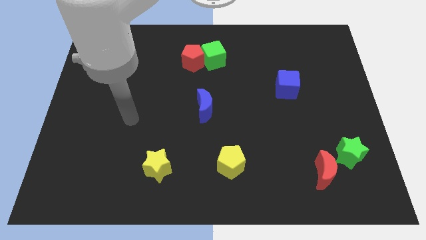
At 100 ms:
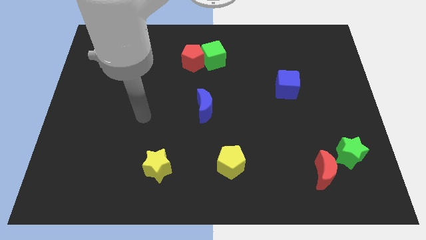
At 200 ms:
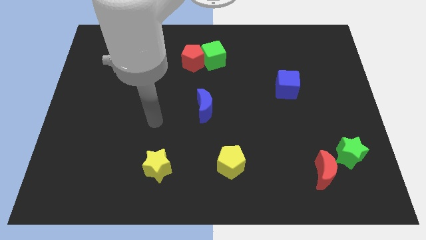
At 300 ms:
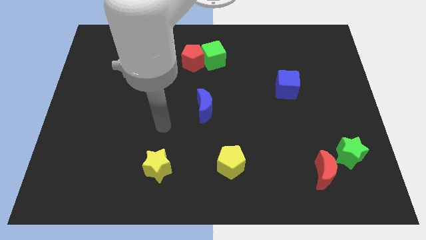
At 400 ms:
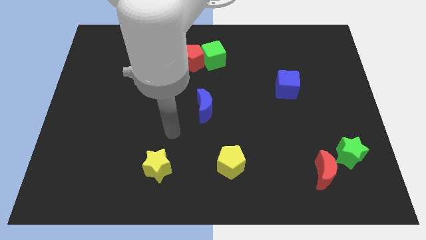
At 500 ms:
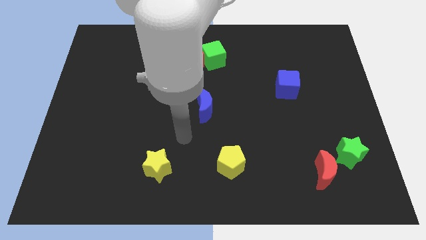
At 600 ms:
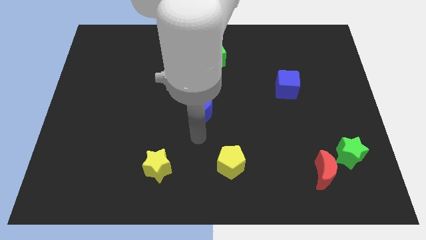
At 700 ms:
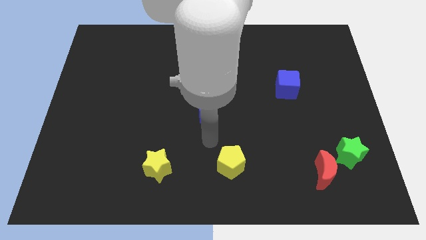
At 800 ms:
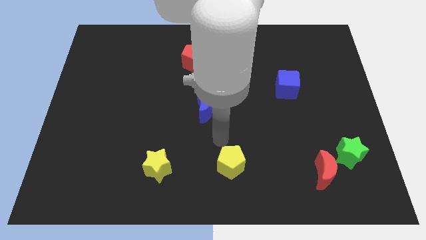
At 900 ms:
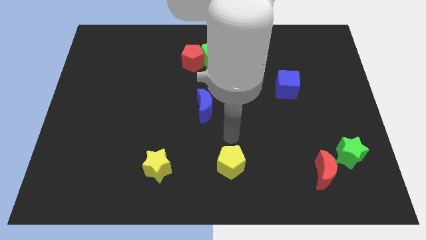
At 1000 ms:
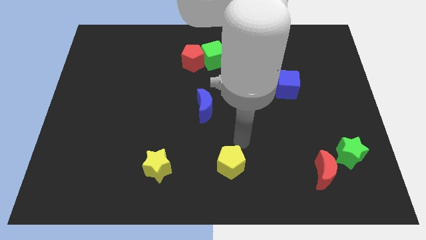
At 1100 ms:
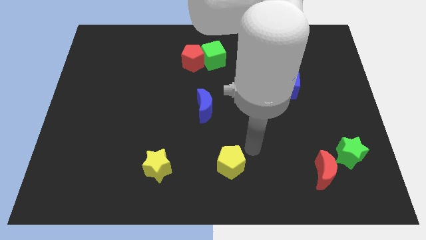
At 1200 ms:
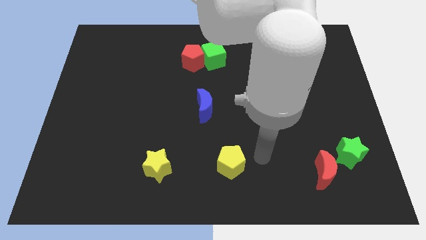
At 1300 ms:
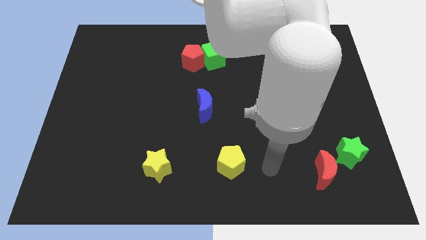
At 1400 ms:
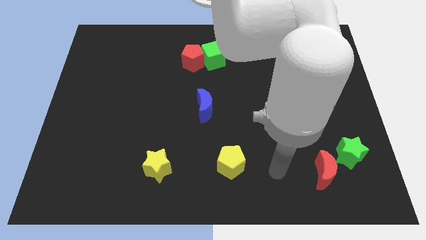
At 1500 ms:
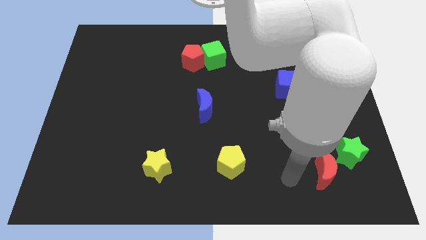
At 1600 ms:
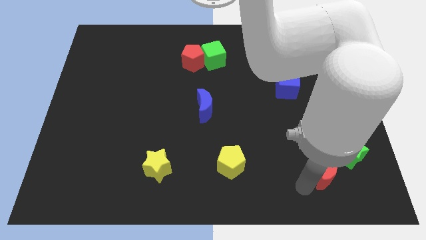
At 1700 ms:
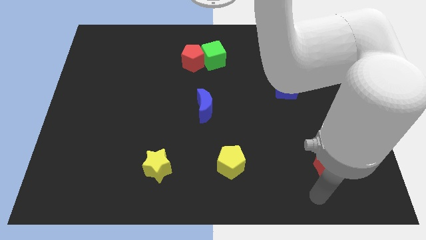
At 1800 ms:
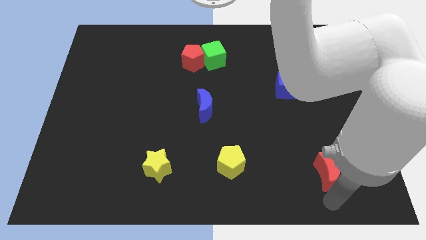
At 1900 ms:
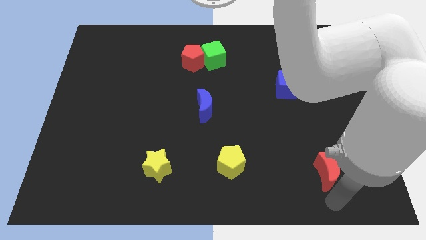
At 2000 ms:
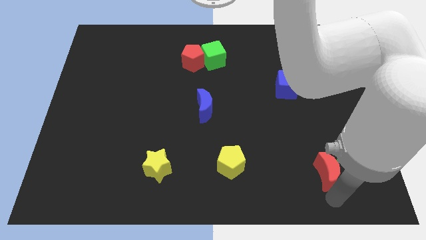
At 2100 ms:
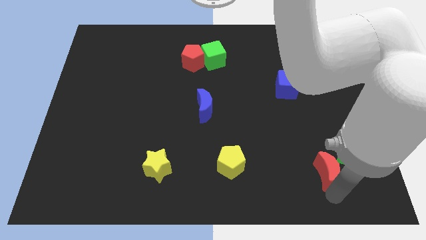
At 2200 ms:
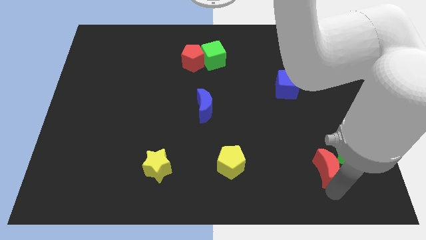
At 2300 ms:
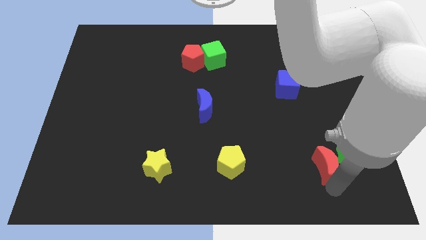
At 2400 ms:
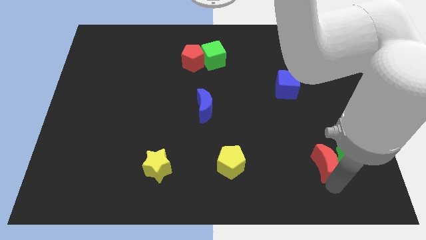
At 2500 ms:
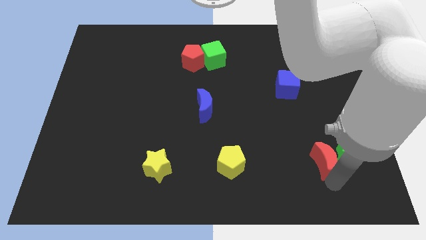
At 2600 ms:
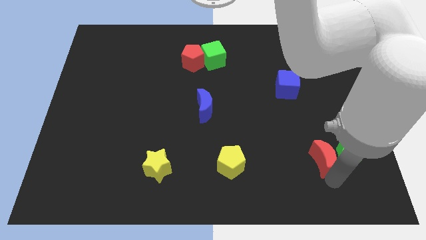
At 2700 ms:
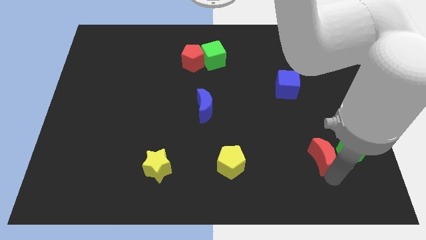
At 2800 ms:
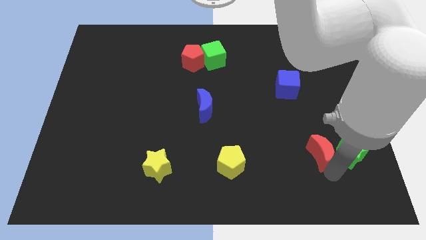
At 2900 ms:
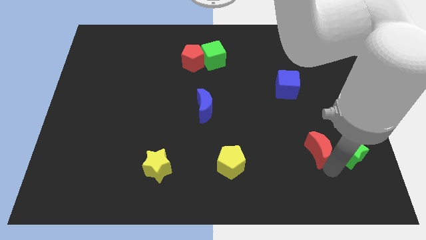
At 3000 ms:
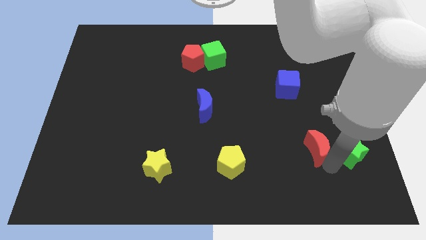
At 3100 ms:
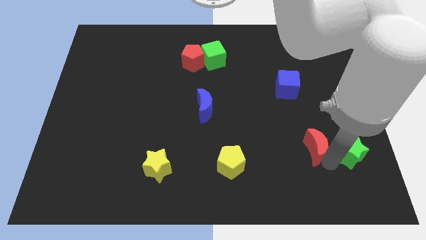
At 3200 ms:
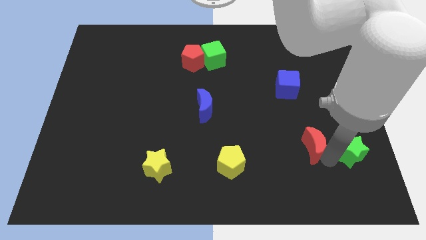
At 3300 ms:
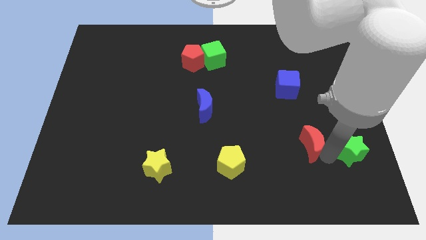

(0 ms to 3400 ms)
slide the red moon upwards slightly

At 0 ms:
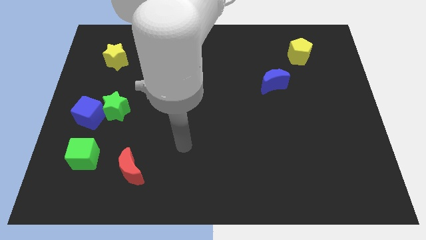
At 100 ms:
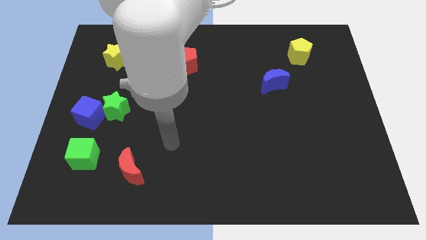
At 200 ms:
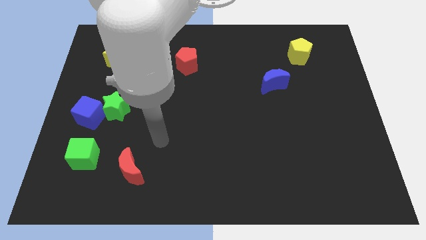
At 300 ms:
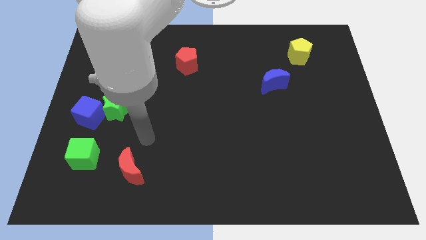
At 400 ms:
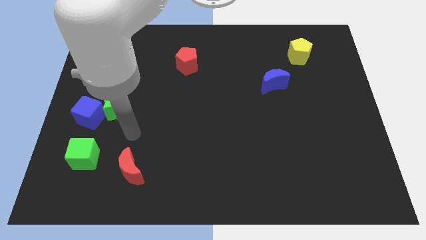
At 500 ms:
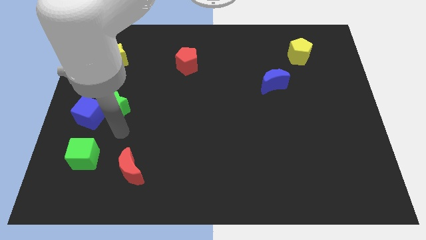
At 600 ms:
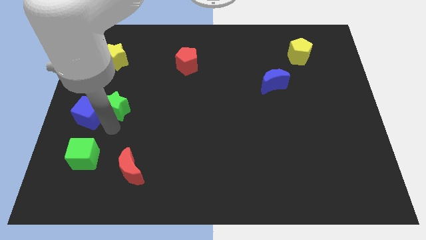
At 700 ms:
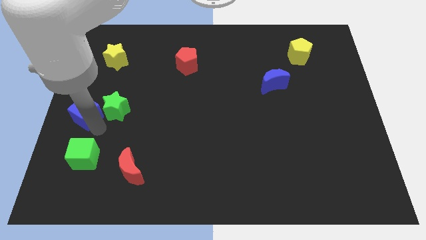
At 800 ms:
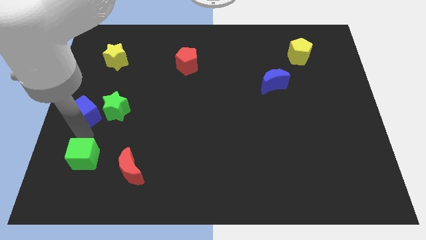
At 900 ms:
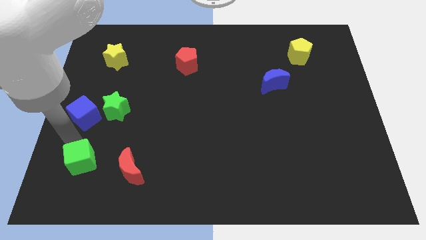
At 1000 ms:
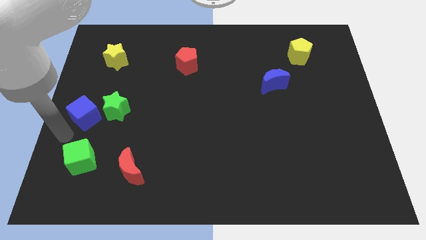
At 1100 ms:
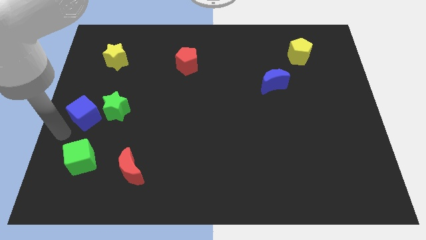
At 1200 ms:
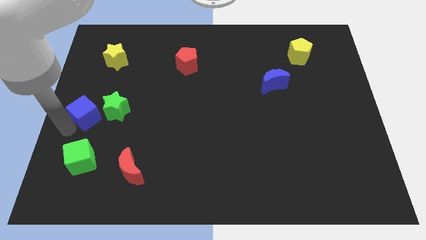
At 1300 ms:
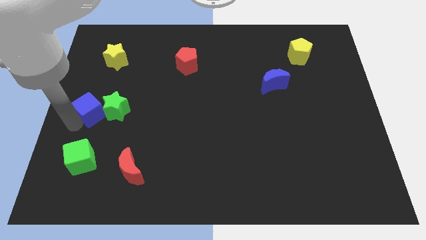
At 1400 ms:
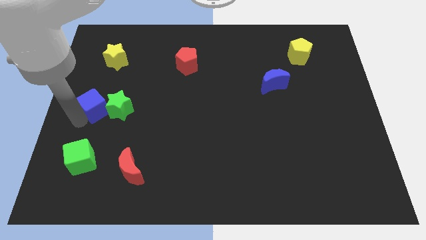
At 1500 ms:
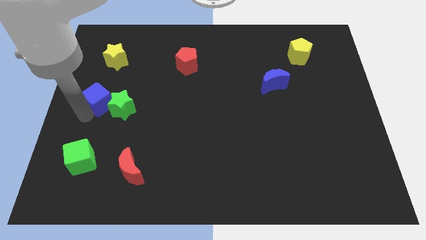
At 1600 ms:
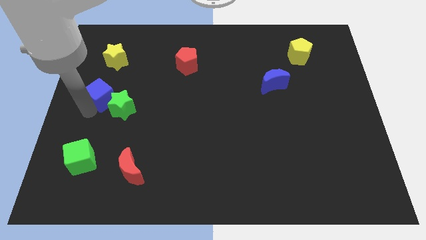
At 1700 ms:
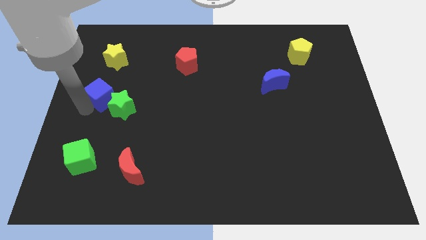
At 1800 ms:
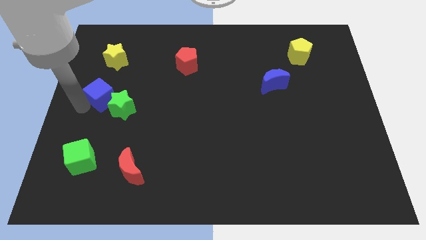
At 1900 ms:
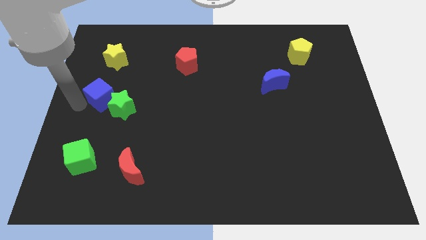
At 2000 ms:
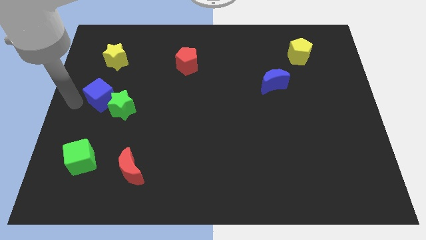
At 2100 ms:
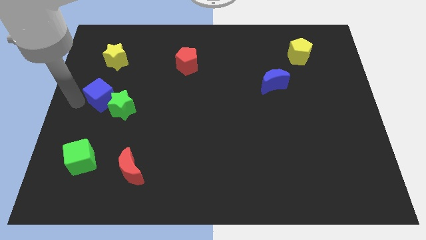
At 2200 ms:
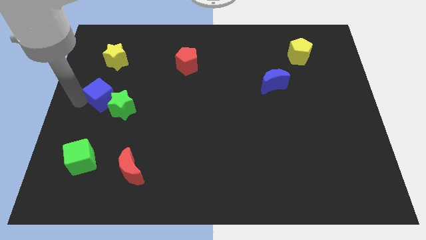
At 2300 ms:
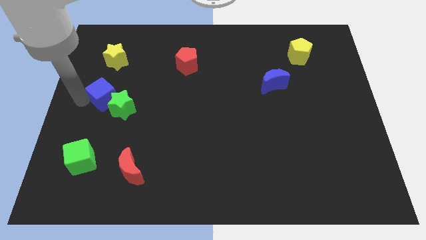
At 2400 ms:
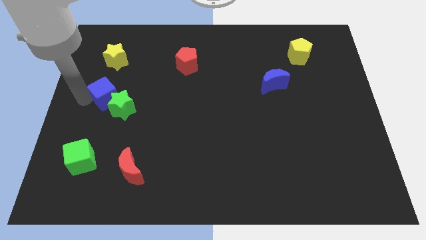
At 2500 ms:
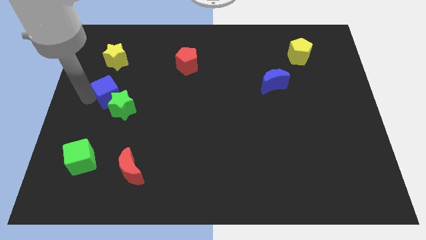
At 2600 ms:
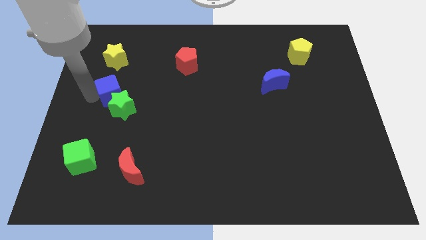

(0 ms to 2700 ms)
move the blue cube a bit up and to the right

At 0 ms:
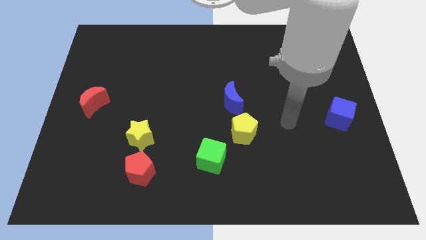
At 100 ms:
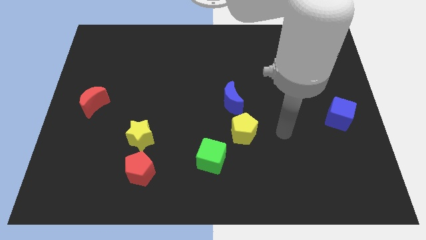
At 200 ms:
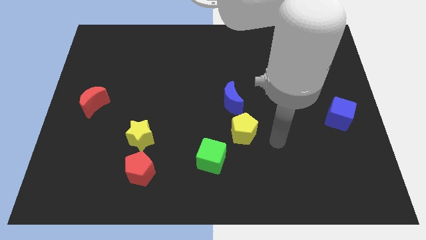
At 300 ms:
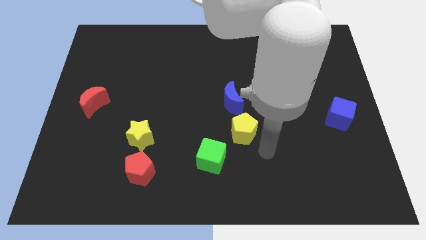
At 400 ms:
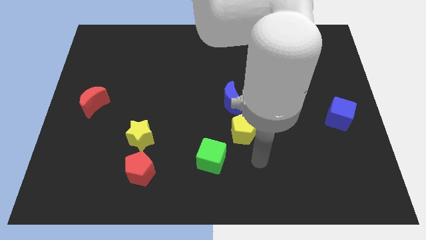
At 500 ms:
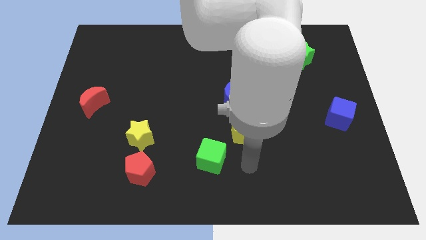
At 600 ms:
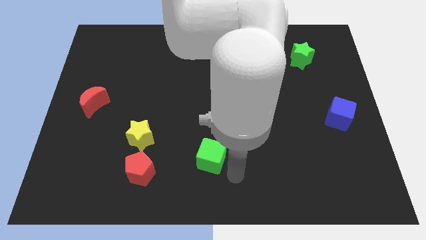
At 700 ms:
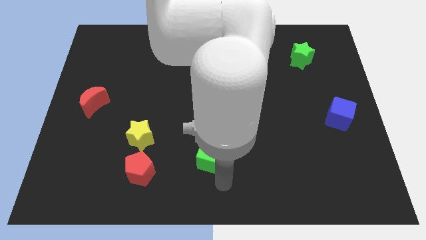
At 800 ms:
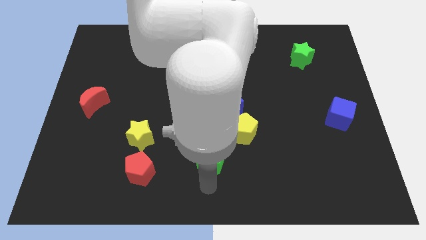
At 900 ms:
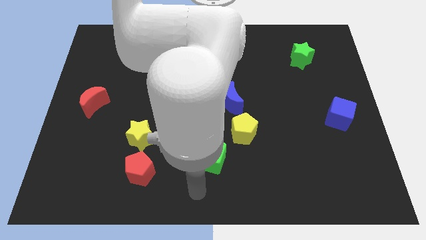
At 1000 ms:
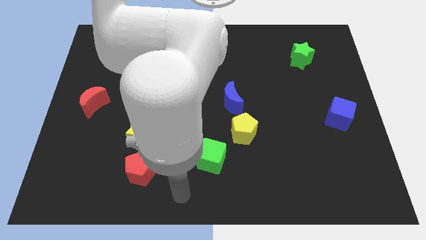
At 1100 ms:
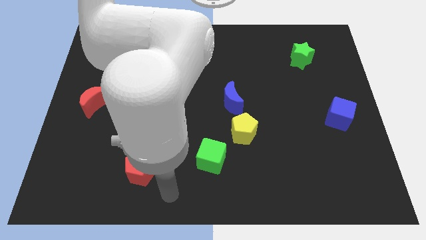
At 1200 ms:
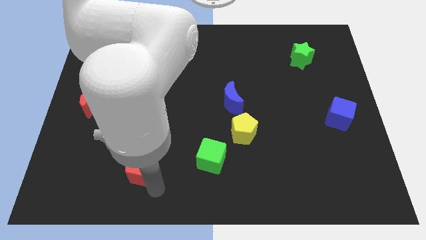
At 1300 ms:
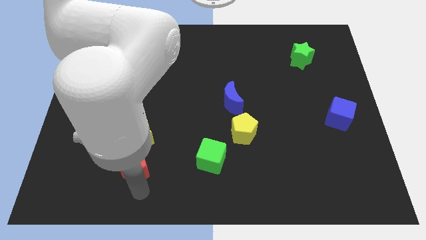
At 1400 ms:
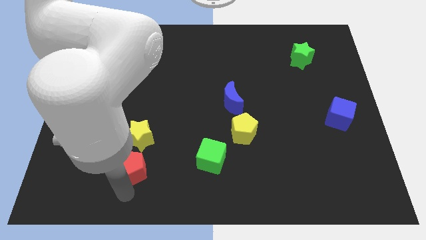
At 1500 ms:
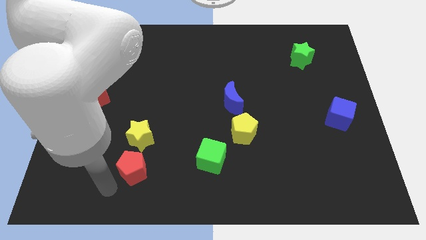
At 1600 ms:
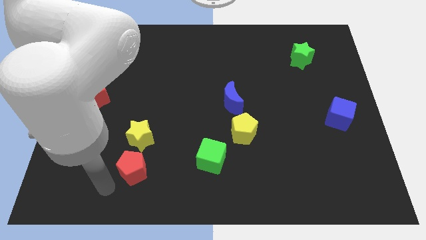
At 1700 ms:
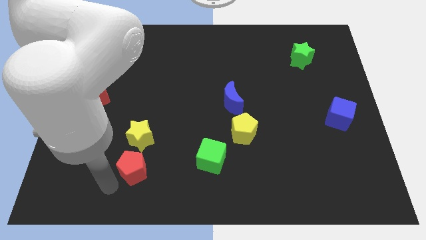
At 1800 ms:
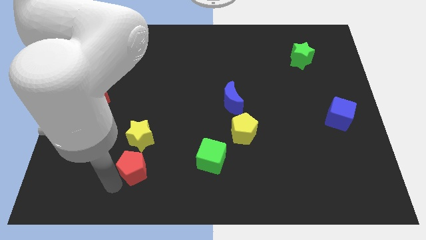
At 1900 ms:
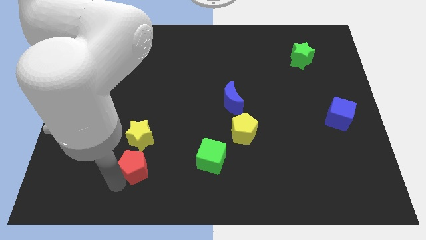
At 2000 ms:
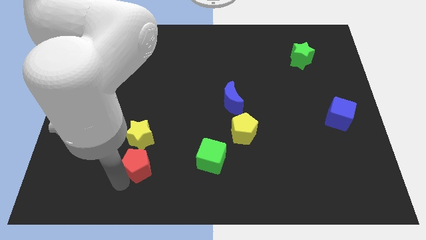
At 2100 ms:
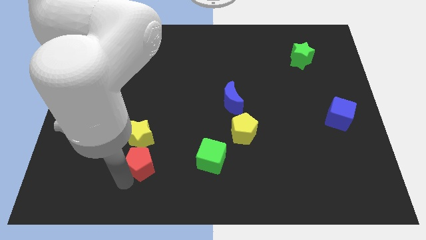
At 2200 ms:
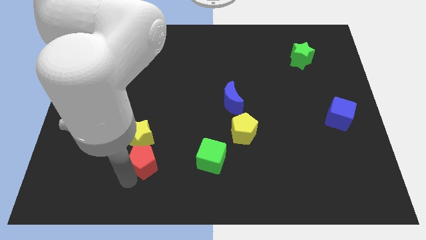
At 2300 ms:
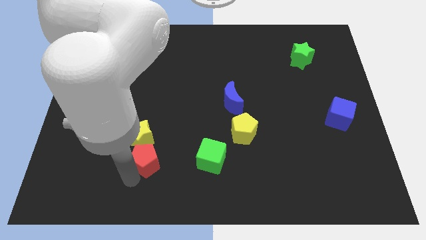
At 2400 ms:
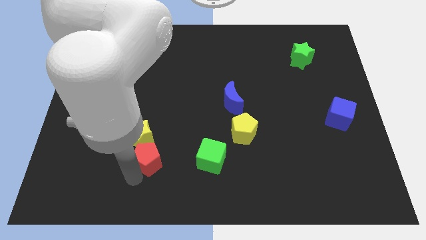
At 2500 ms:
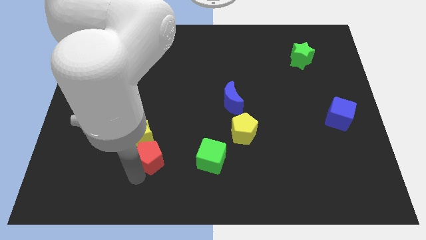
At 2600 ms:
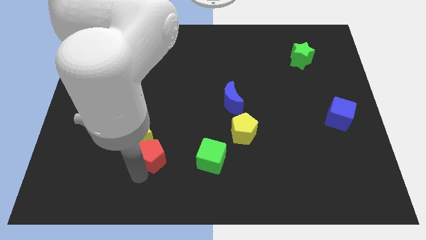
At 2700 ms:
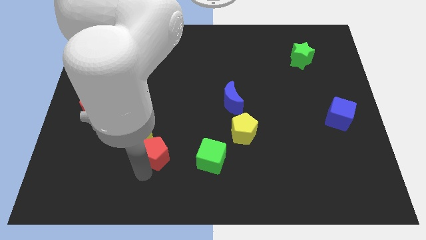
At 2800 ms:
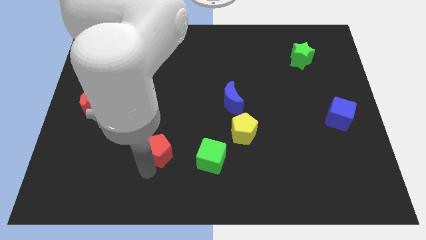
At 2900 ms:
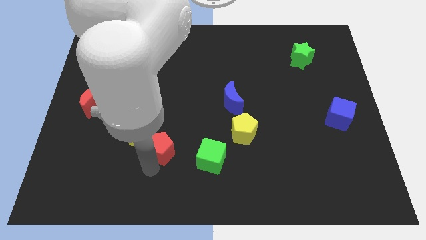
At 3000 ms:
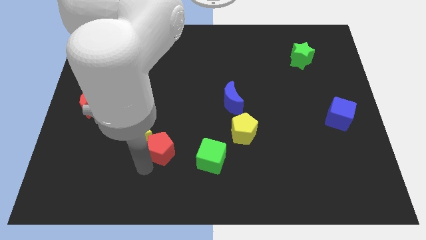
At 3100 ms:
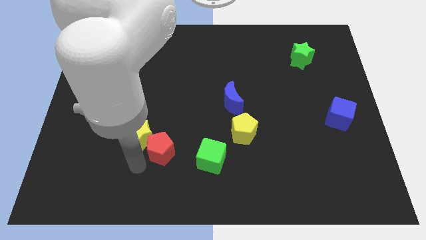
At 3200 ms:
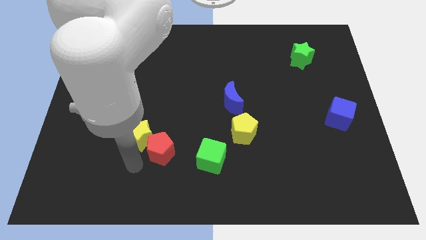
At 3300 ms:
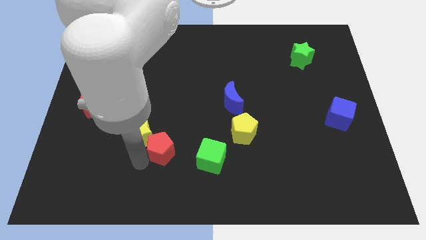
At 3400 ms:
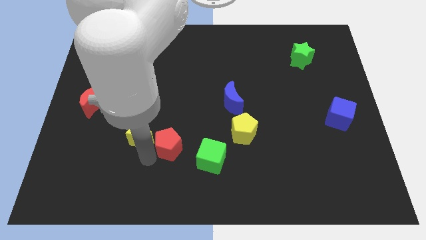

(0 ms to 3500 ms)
push the red pentagon up and right diagonally a little bit
